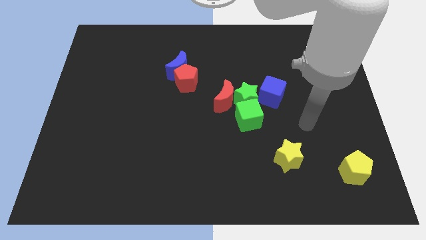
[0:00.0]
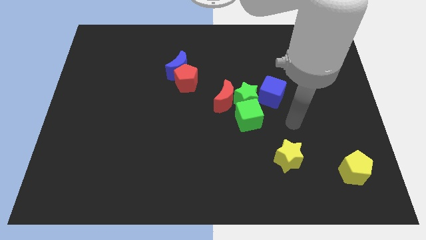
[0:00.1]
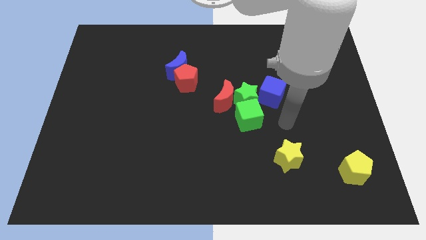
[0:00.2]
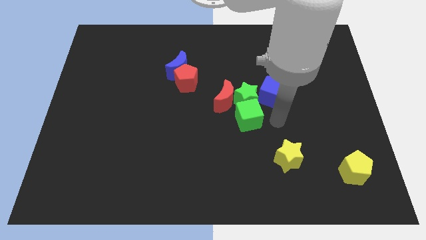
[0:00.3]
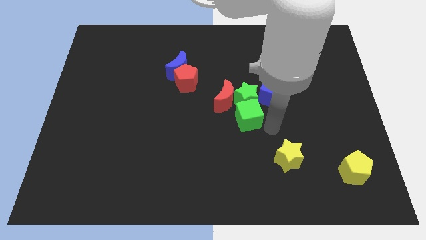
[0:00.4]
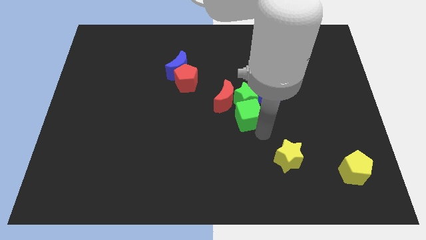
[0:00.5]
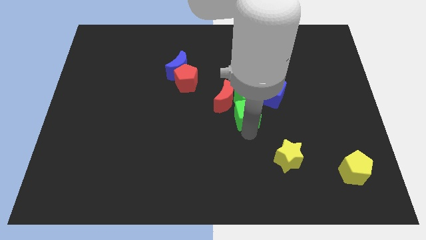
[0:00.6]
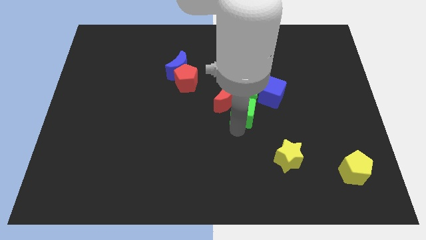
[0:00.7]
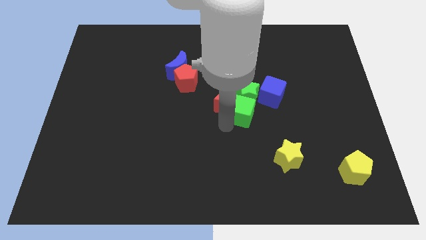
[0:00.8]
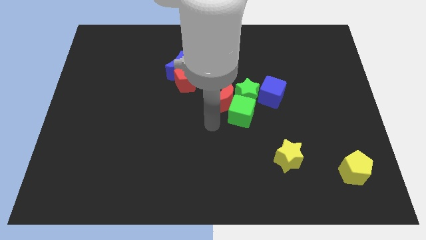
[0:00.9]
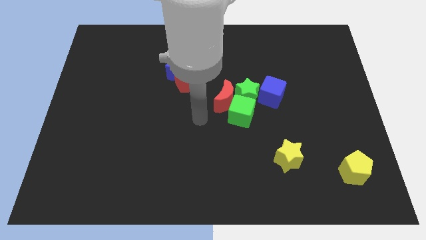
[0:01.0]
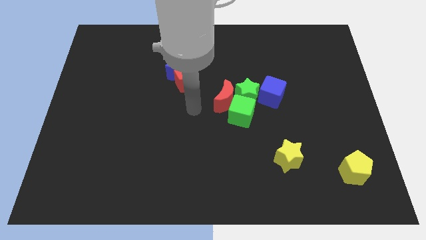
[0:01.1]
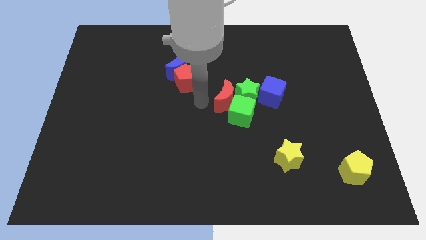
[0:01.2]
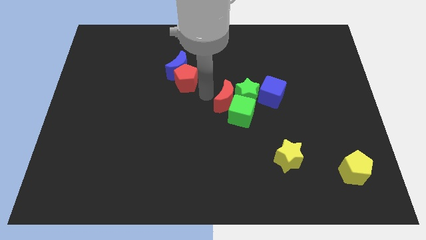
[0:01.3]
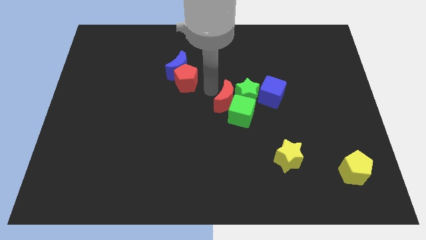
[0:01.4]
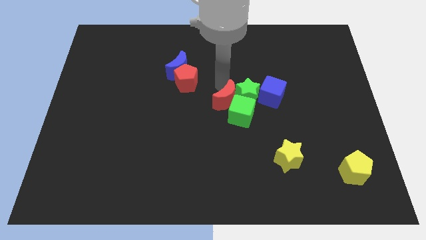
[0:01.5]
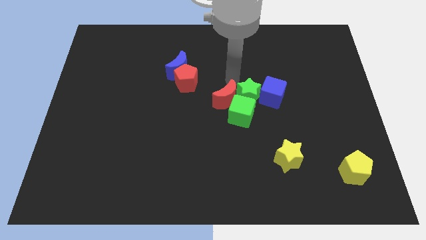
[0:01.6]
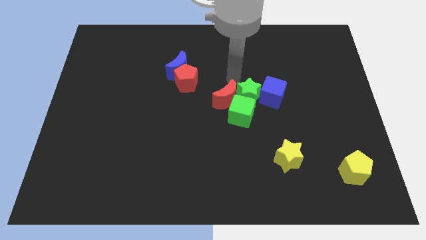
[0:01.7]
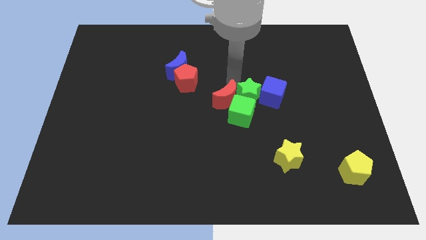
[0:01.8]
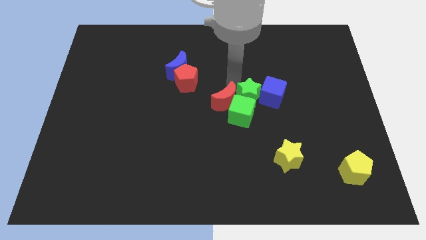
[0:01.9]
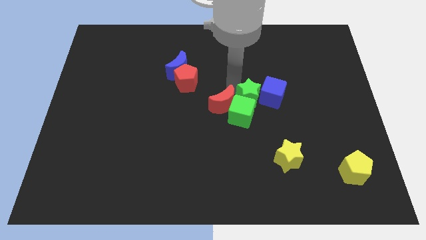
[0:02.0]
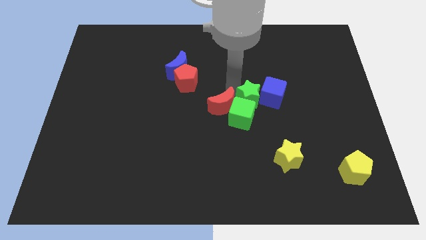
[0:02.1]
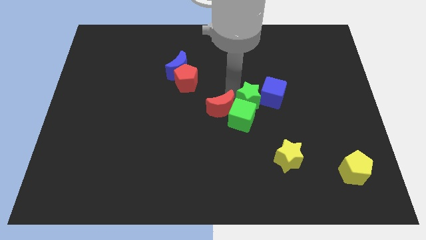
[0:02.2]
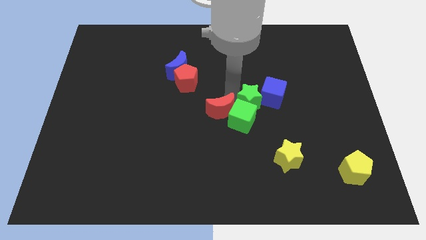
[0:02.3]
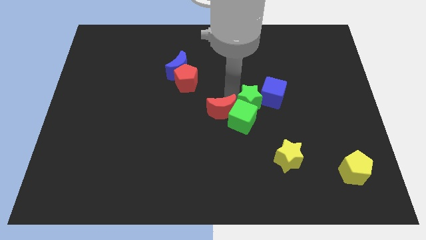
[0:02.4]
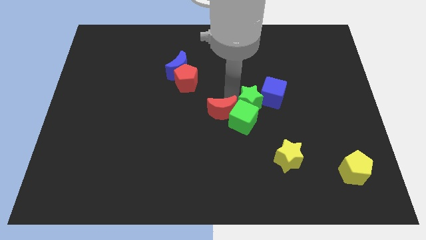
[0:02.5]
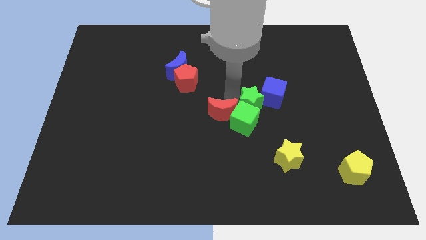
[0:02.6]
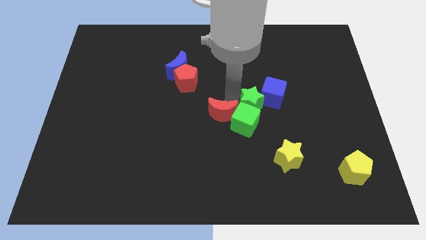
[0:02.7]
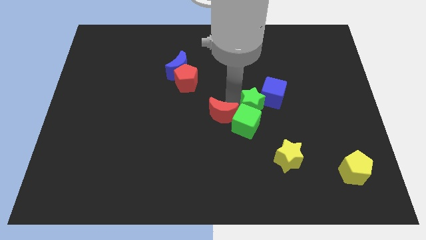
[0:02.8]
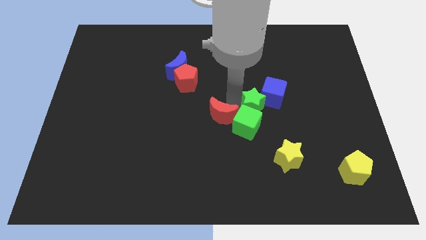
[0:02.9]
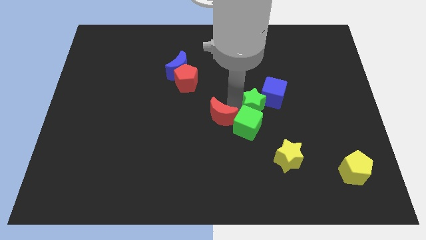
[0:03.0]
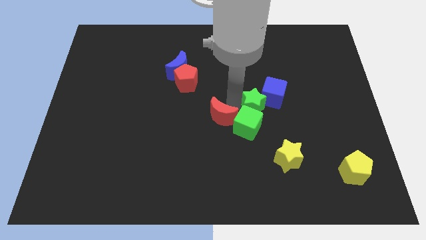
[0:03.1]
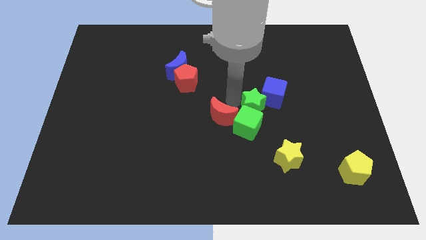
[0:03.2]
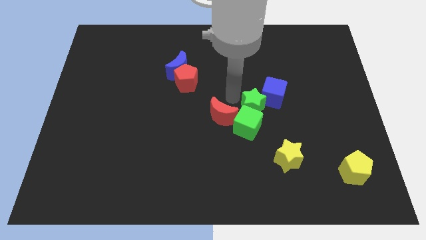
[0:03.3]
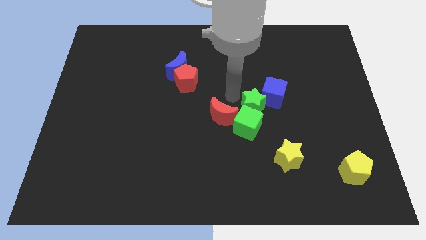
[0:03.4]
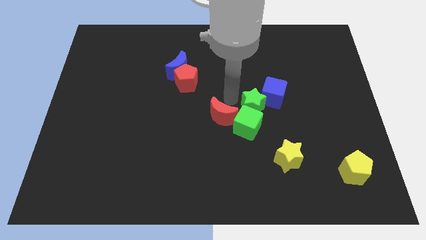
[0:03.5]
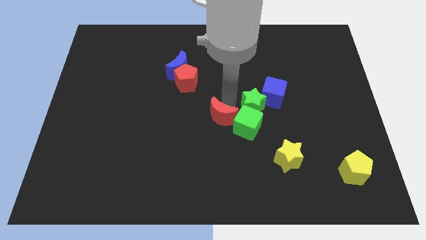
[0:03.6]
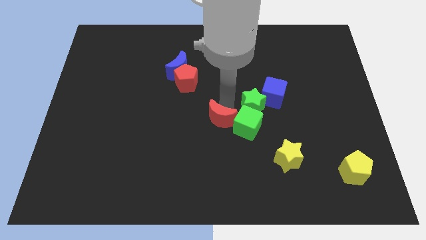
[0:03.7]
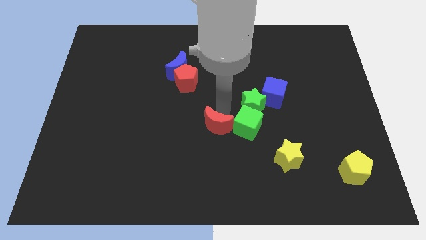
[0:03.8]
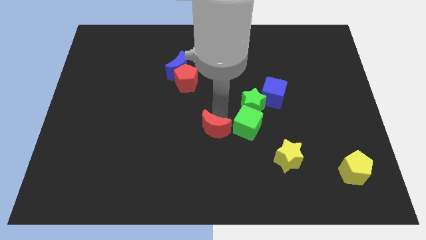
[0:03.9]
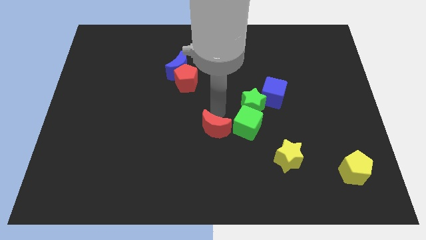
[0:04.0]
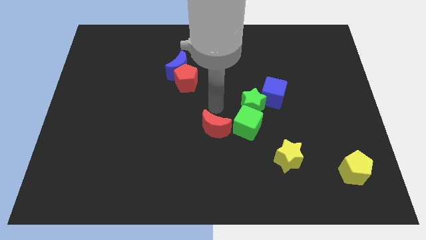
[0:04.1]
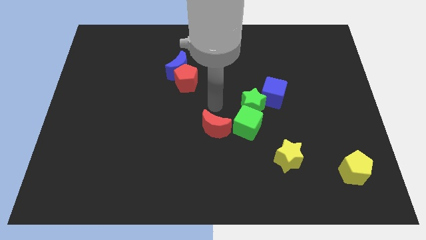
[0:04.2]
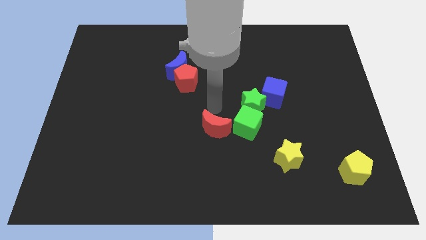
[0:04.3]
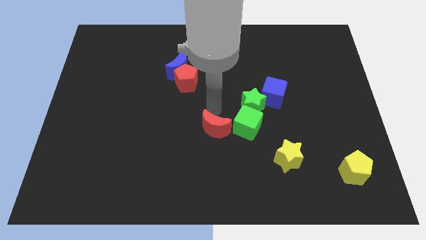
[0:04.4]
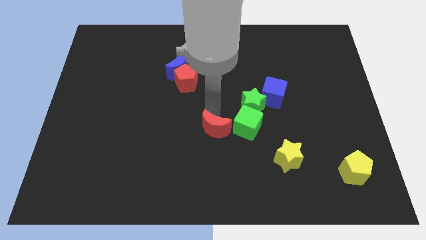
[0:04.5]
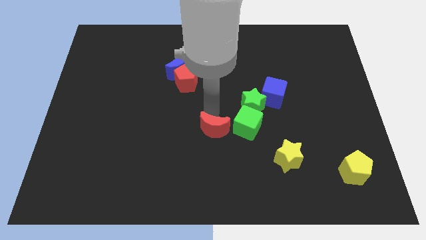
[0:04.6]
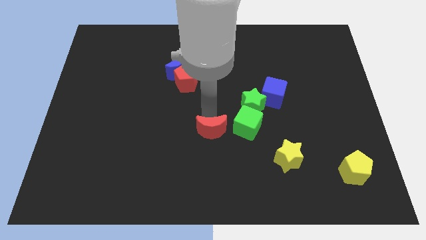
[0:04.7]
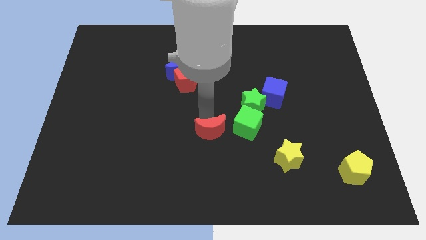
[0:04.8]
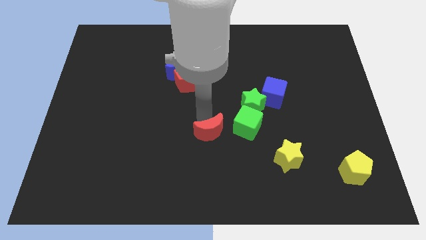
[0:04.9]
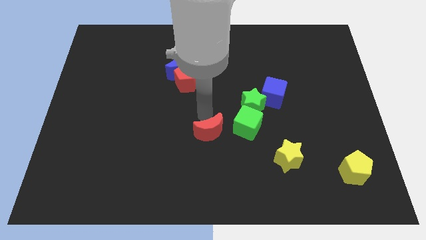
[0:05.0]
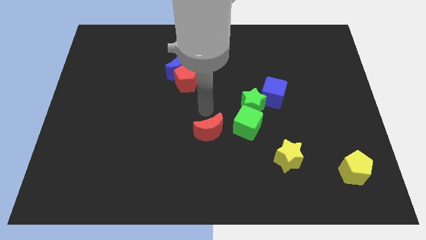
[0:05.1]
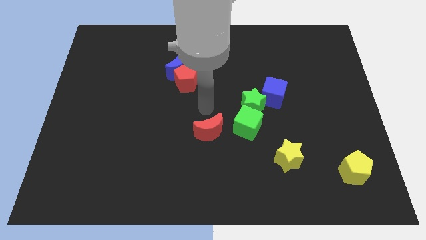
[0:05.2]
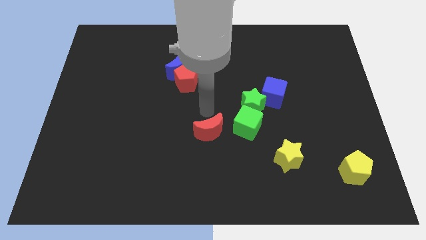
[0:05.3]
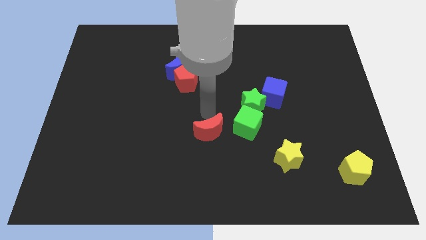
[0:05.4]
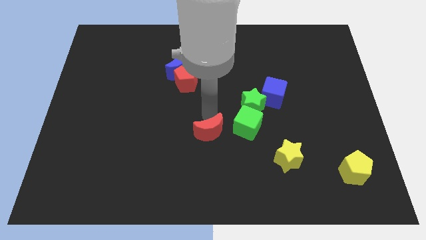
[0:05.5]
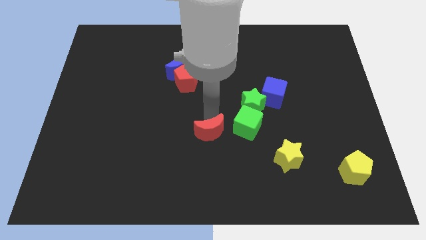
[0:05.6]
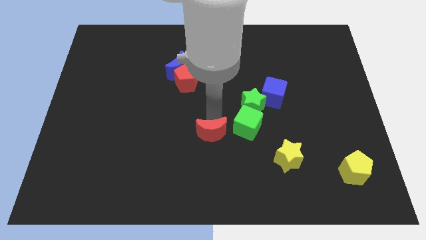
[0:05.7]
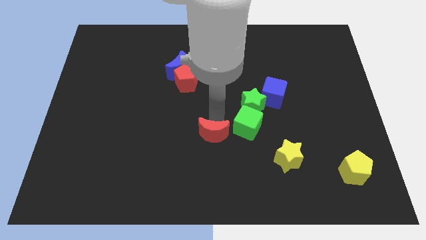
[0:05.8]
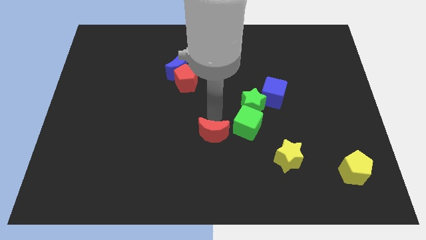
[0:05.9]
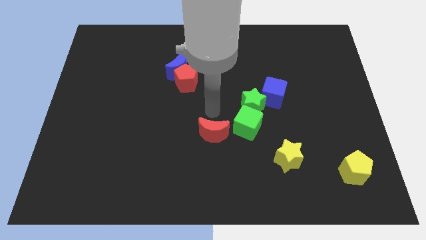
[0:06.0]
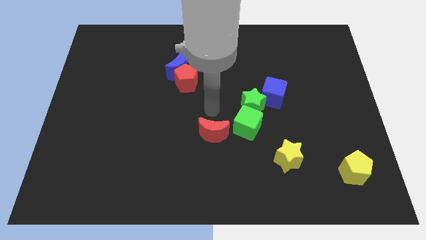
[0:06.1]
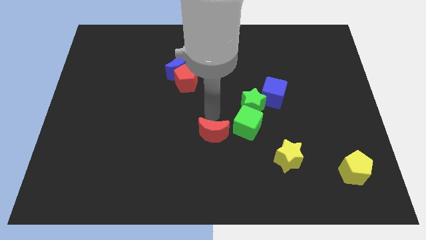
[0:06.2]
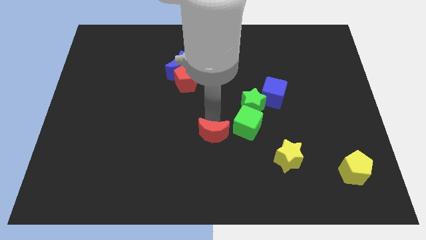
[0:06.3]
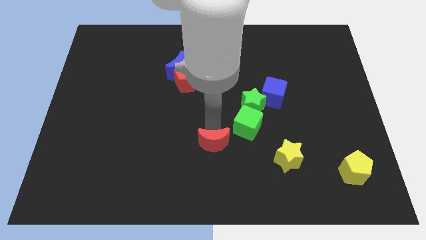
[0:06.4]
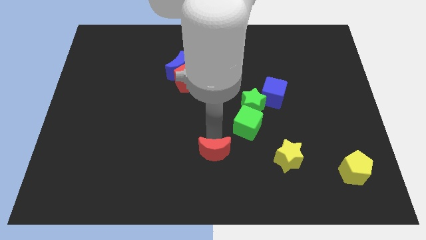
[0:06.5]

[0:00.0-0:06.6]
push the red moon to the bottom side

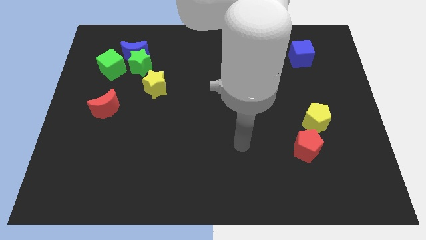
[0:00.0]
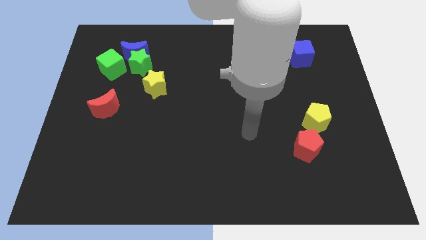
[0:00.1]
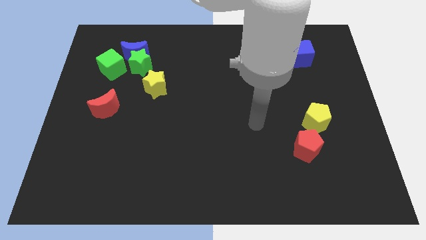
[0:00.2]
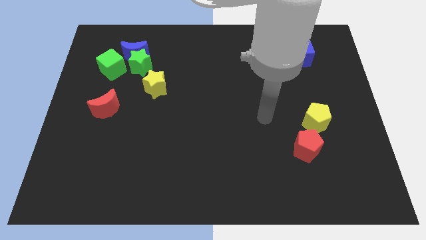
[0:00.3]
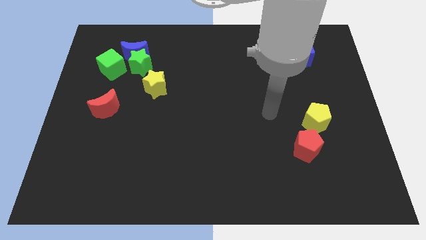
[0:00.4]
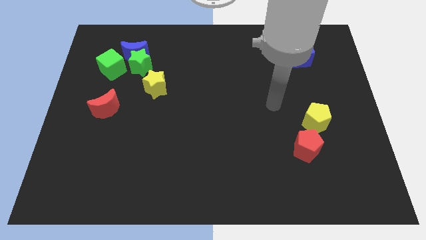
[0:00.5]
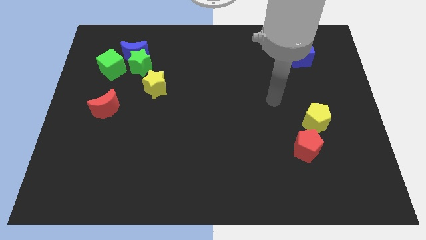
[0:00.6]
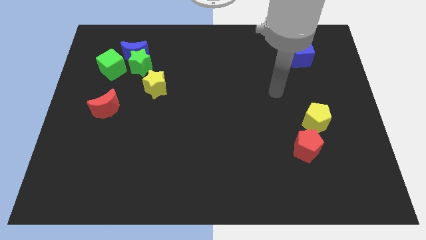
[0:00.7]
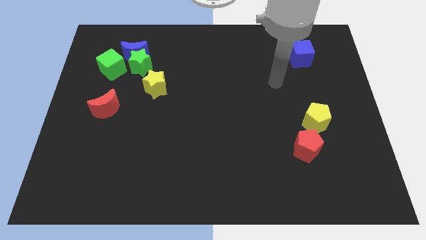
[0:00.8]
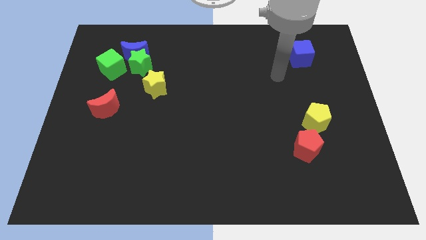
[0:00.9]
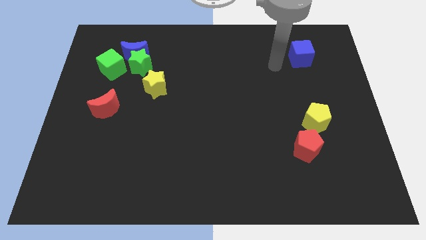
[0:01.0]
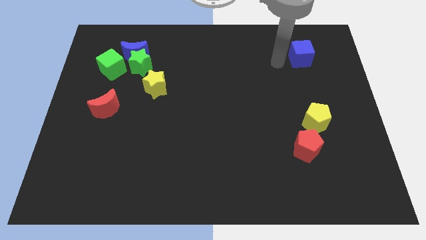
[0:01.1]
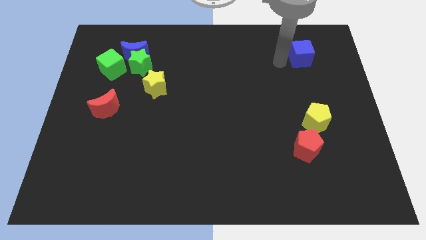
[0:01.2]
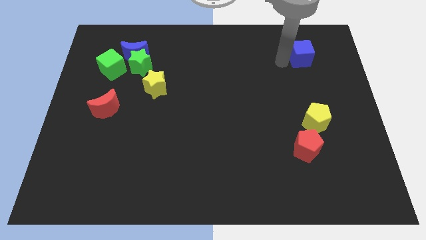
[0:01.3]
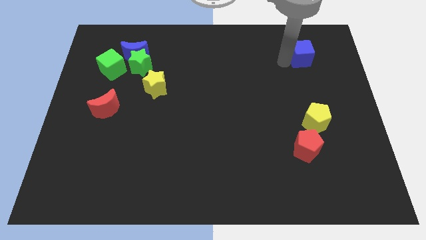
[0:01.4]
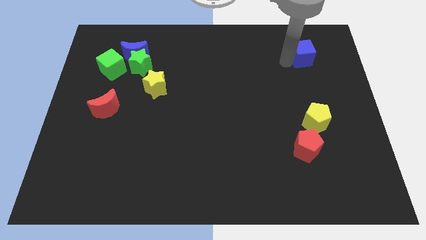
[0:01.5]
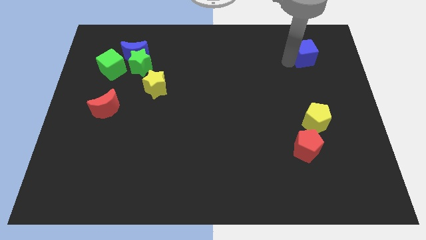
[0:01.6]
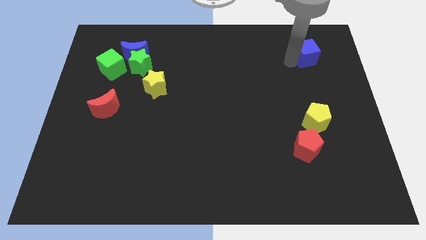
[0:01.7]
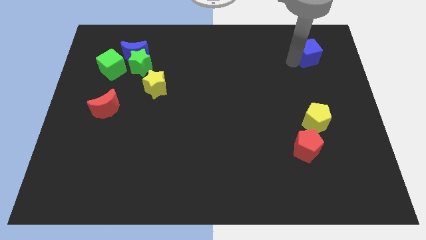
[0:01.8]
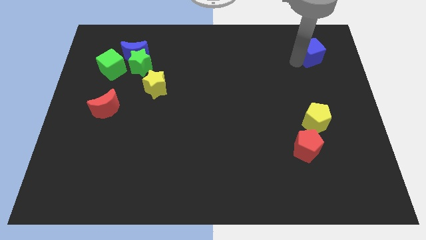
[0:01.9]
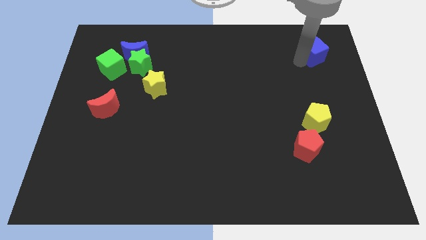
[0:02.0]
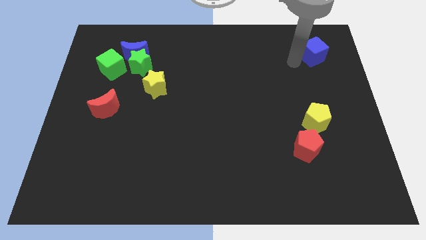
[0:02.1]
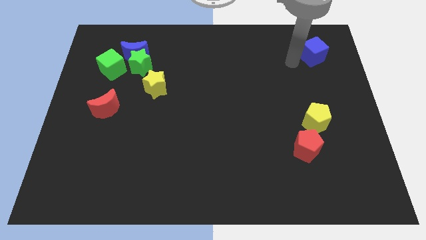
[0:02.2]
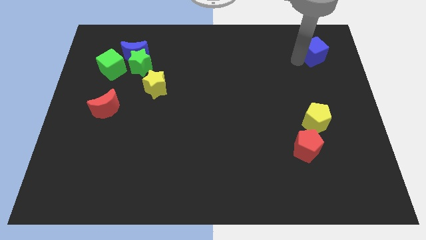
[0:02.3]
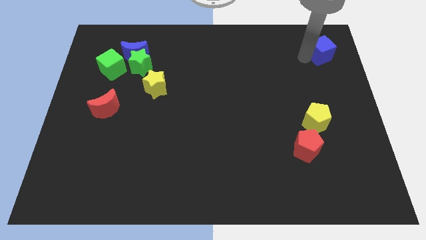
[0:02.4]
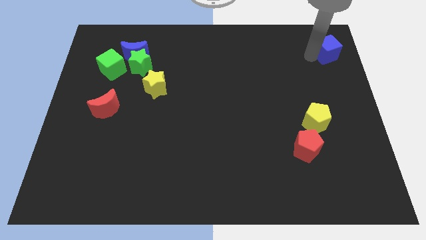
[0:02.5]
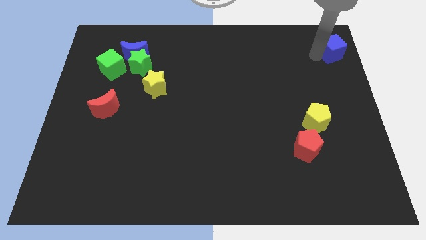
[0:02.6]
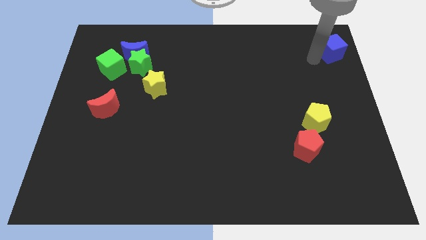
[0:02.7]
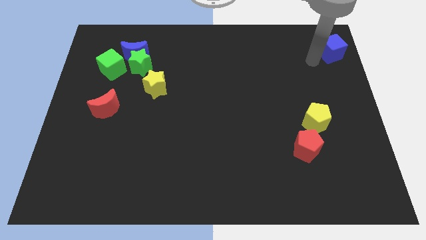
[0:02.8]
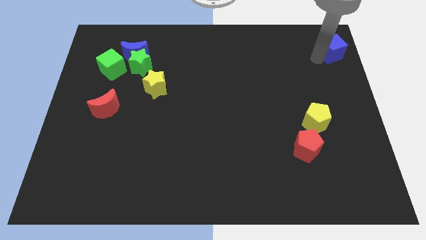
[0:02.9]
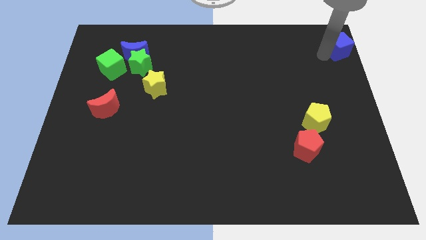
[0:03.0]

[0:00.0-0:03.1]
put the blue cube to the upper right corner
